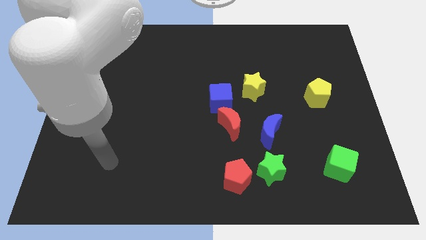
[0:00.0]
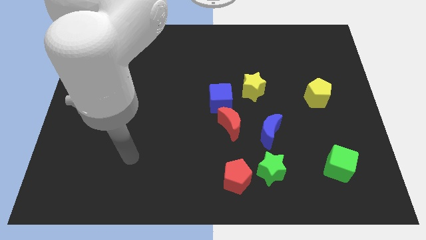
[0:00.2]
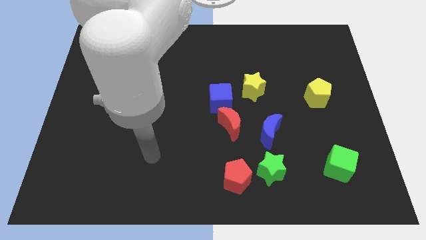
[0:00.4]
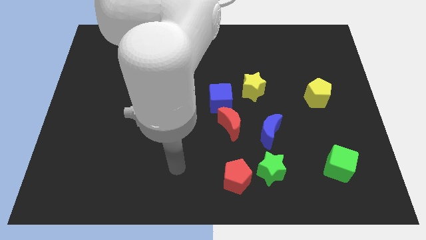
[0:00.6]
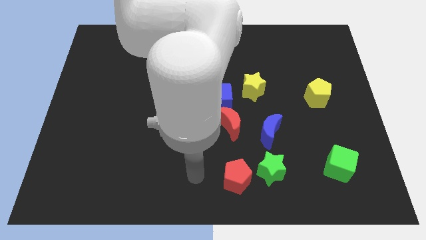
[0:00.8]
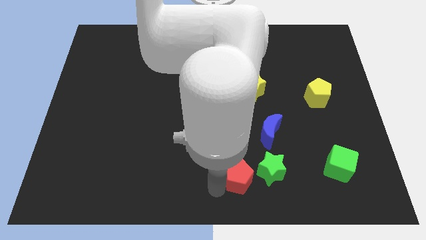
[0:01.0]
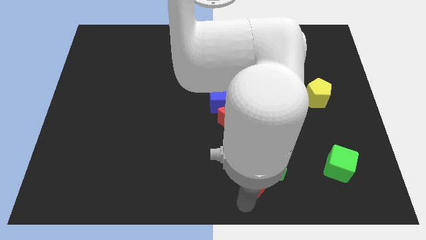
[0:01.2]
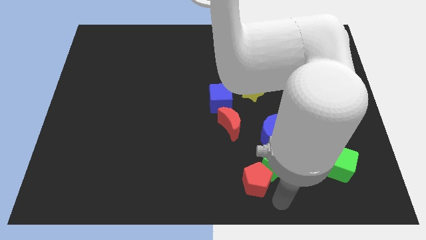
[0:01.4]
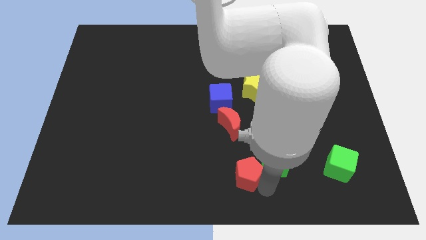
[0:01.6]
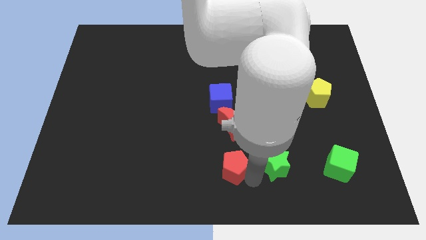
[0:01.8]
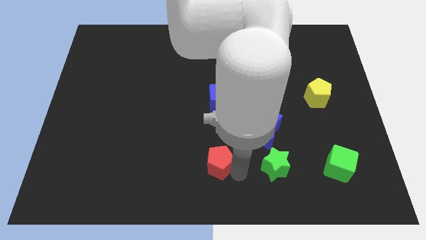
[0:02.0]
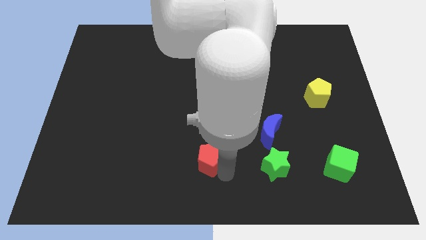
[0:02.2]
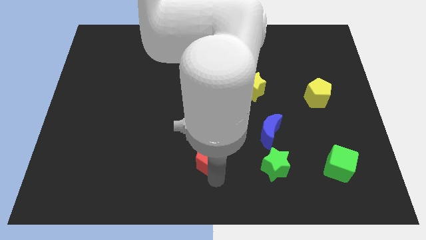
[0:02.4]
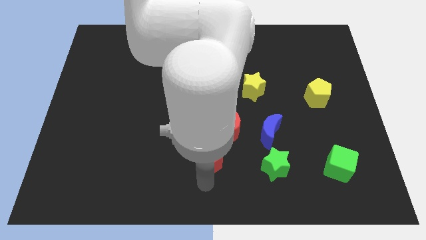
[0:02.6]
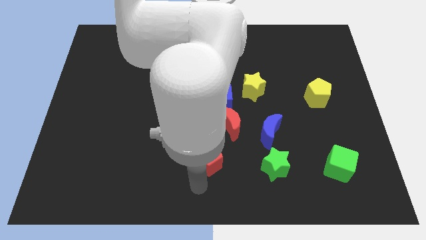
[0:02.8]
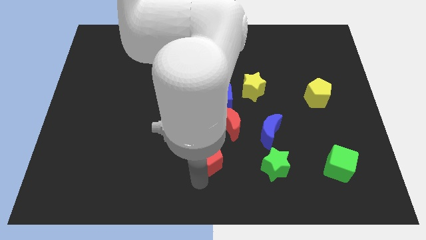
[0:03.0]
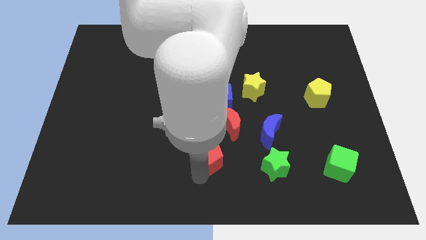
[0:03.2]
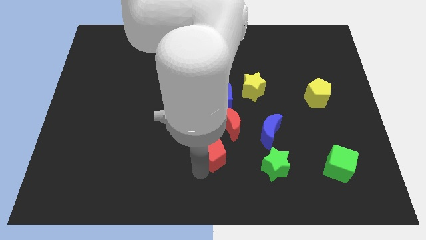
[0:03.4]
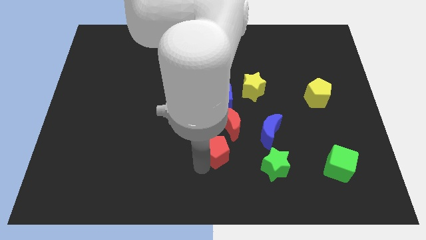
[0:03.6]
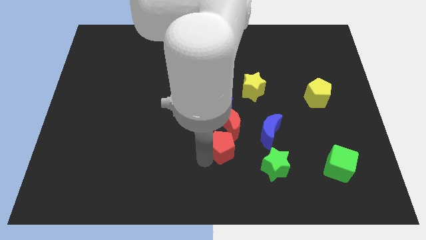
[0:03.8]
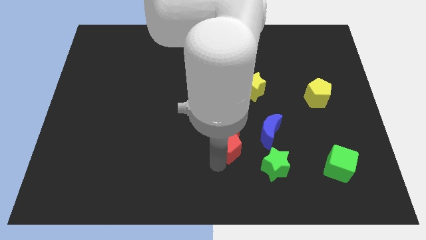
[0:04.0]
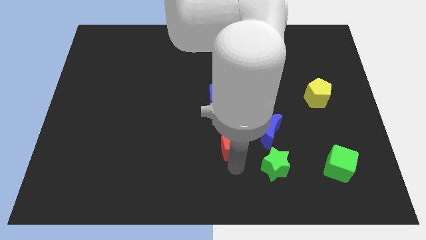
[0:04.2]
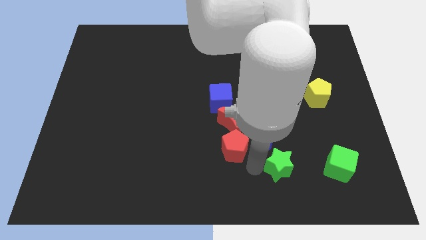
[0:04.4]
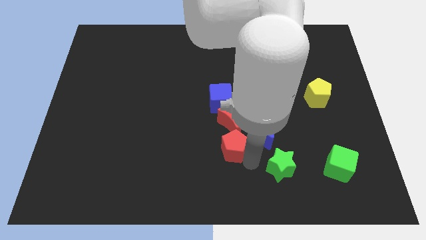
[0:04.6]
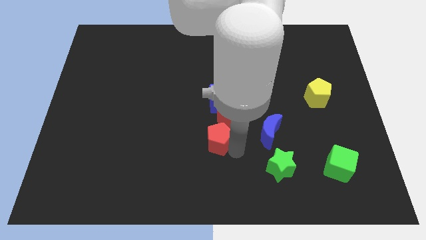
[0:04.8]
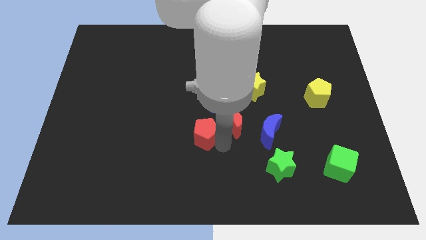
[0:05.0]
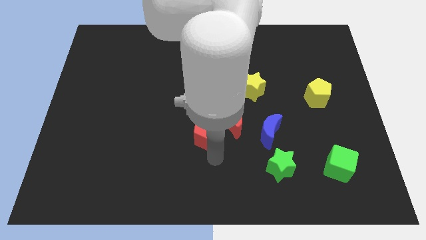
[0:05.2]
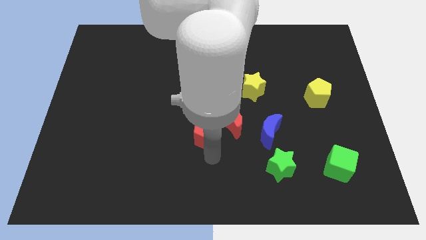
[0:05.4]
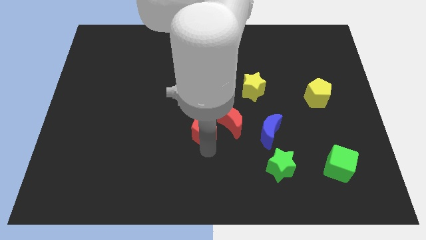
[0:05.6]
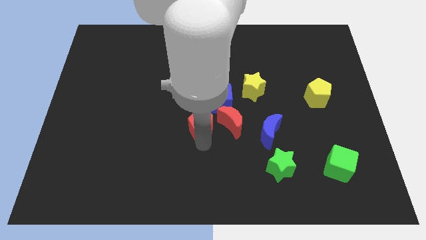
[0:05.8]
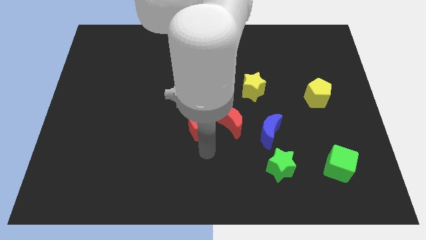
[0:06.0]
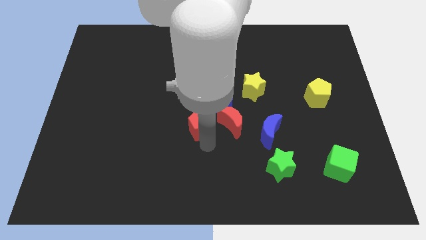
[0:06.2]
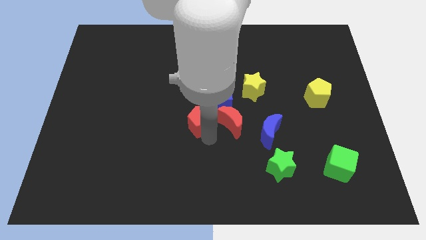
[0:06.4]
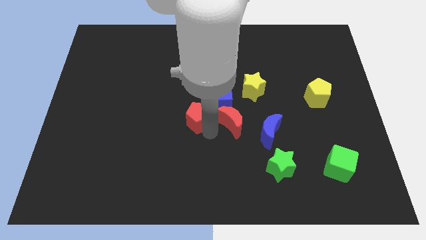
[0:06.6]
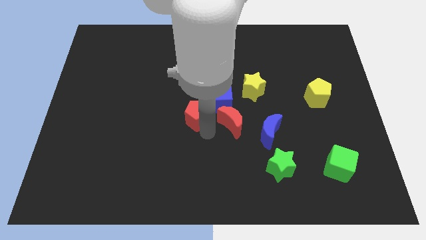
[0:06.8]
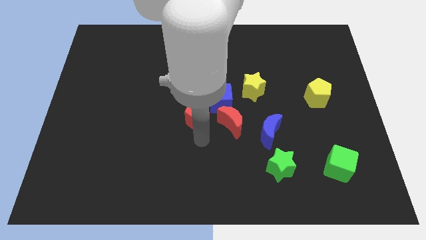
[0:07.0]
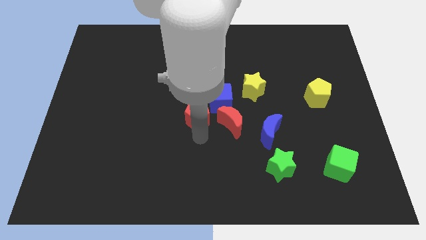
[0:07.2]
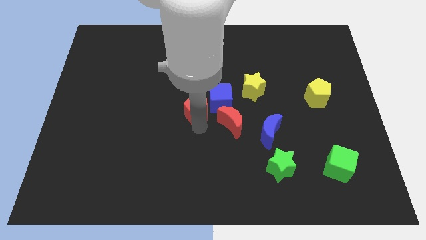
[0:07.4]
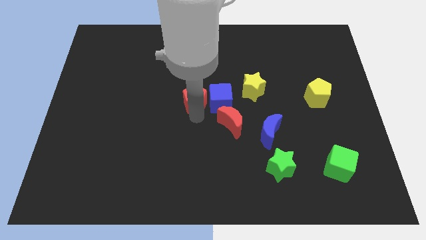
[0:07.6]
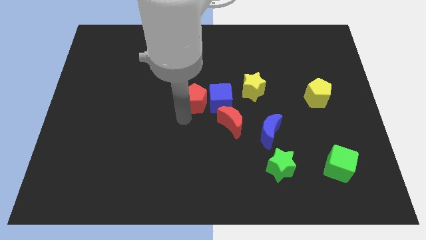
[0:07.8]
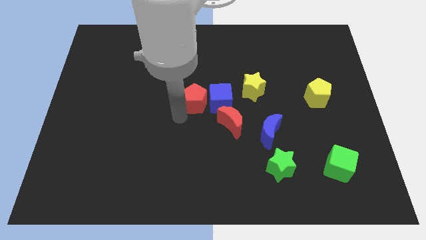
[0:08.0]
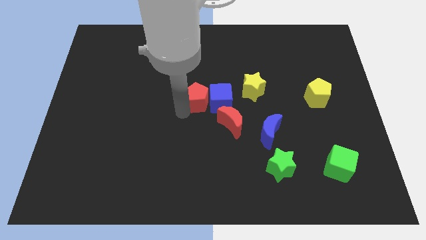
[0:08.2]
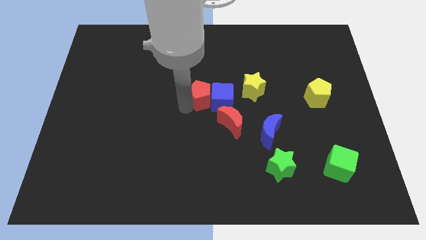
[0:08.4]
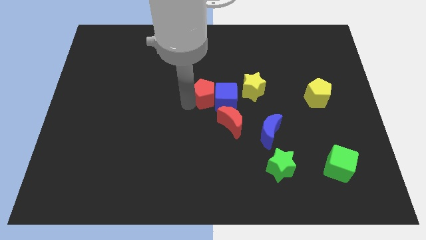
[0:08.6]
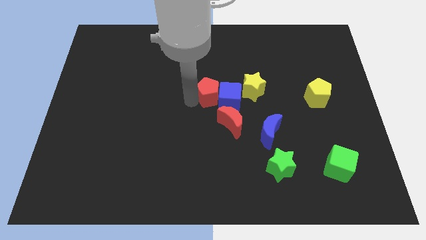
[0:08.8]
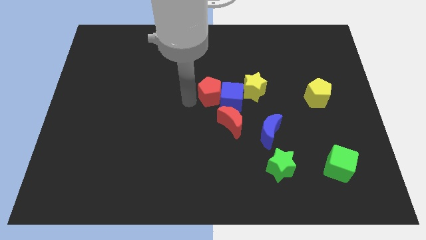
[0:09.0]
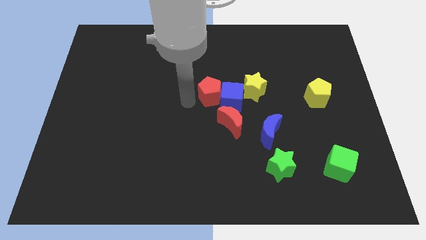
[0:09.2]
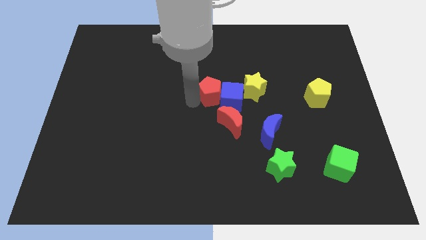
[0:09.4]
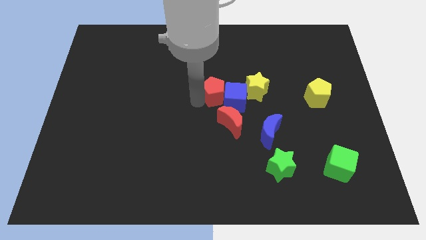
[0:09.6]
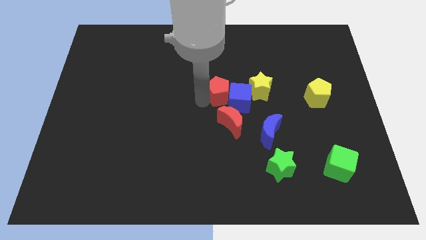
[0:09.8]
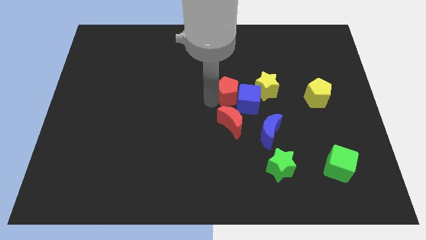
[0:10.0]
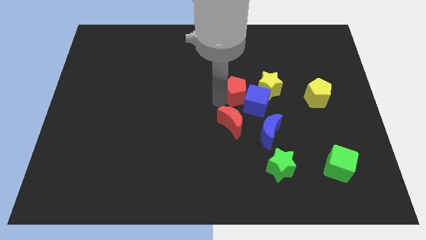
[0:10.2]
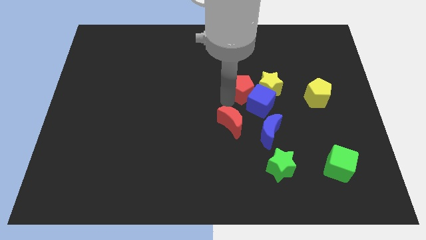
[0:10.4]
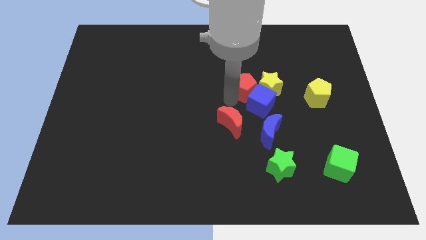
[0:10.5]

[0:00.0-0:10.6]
move the red pentagon to the yellow star

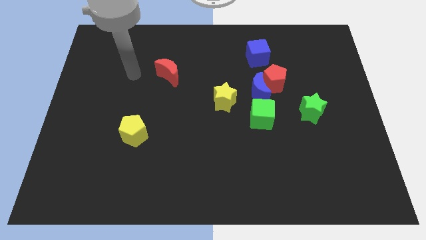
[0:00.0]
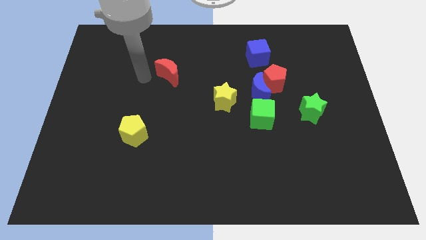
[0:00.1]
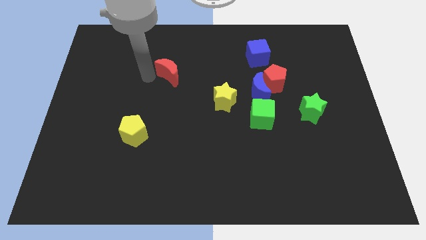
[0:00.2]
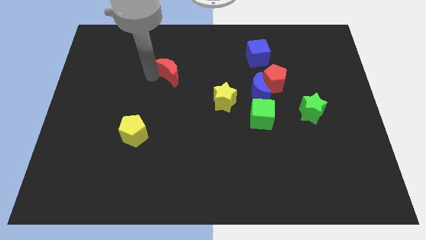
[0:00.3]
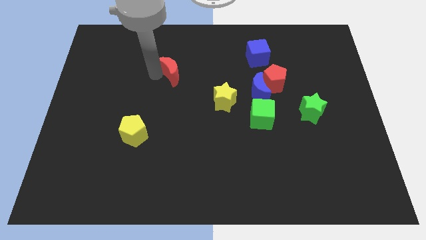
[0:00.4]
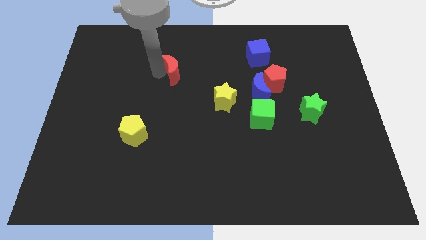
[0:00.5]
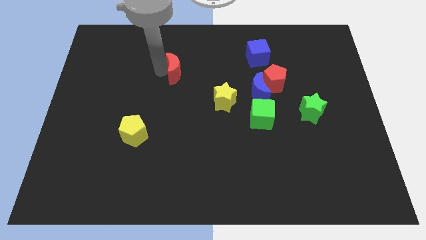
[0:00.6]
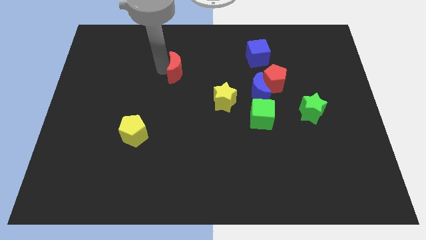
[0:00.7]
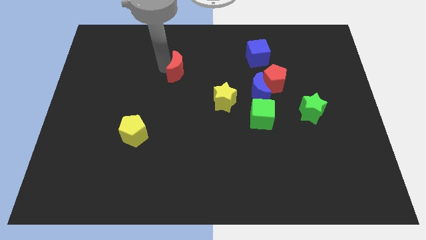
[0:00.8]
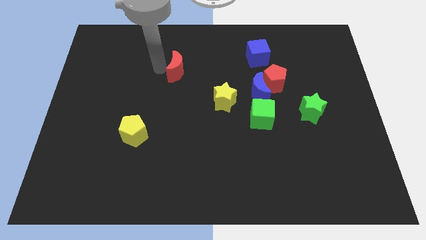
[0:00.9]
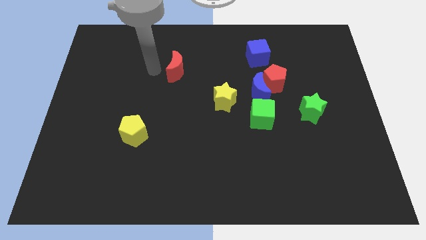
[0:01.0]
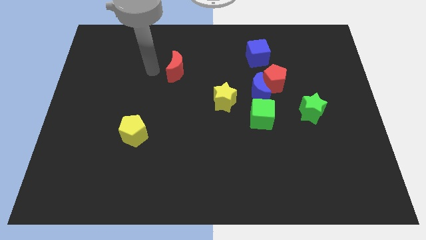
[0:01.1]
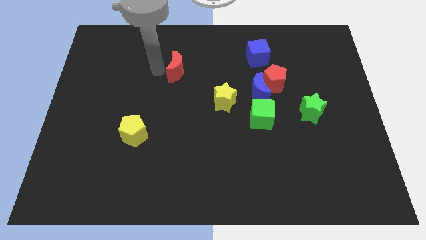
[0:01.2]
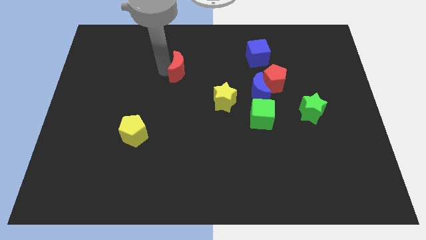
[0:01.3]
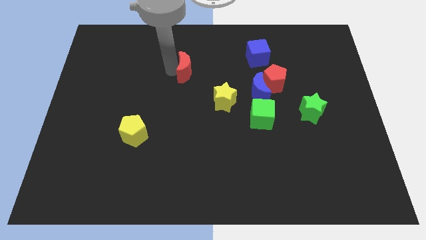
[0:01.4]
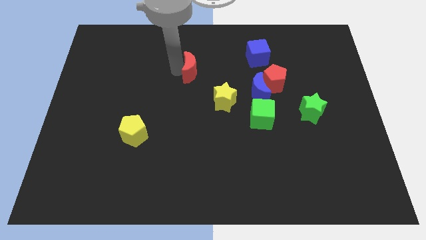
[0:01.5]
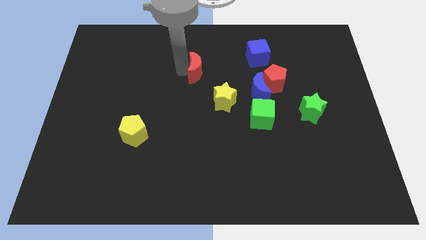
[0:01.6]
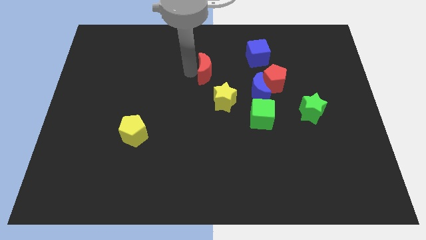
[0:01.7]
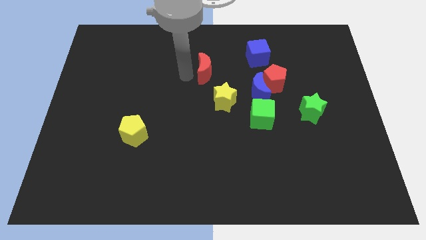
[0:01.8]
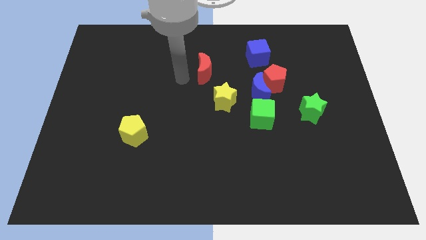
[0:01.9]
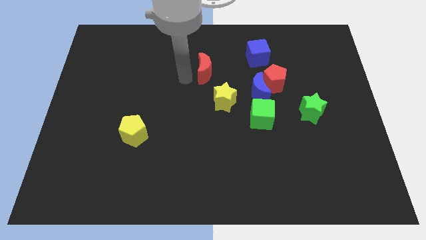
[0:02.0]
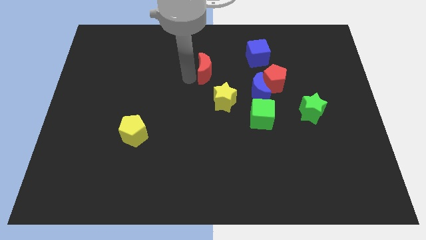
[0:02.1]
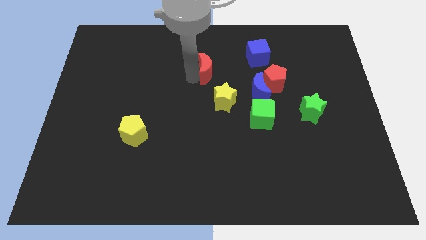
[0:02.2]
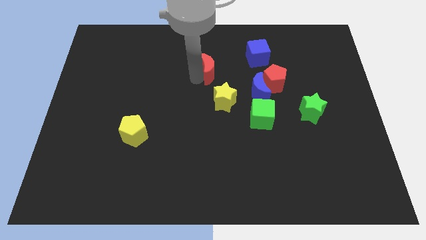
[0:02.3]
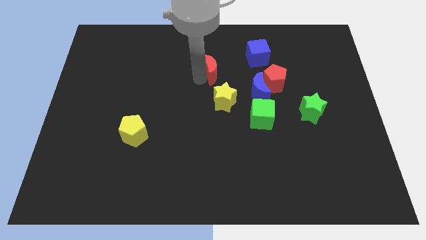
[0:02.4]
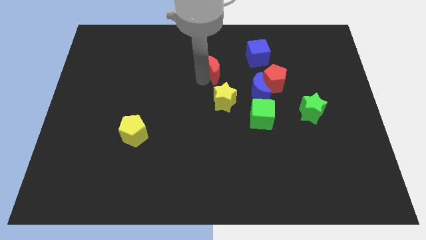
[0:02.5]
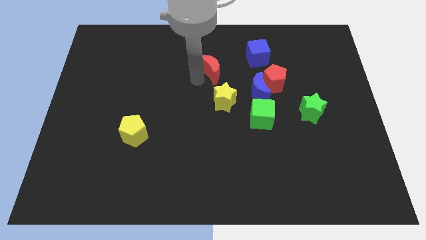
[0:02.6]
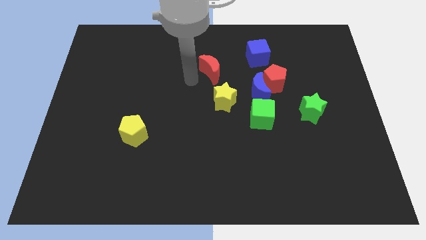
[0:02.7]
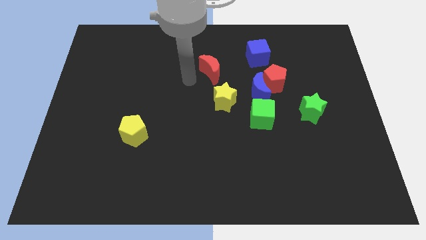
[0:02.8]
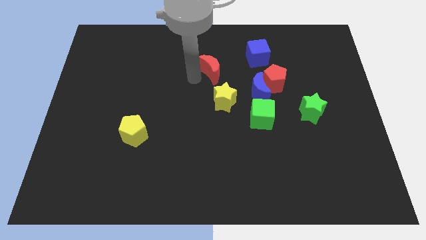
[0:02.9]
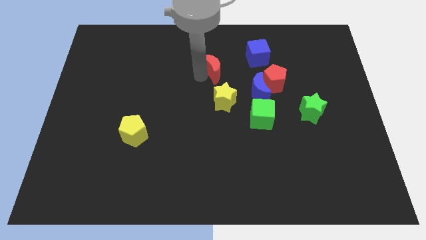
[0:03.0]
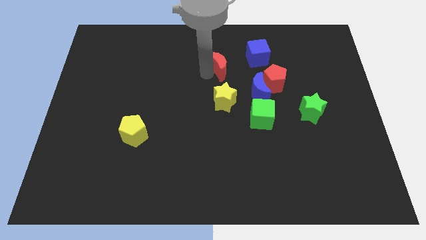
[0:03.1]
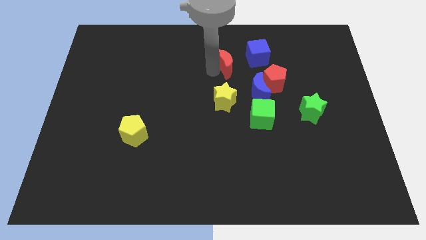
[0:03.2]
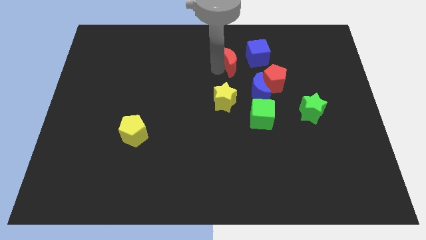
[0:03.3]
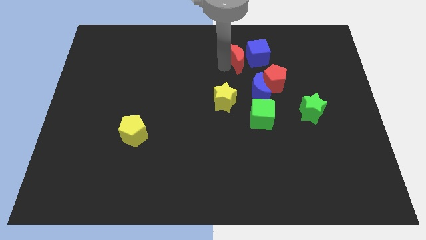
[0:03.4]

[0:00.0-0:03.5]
slide the red moon to the blue cube
